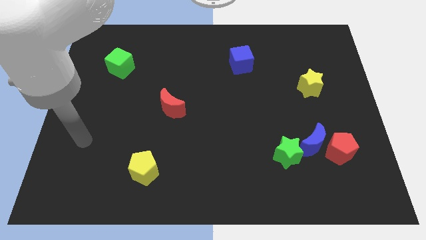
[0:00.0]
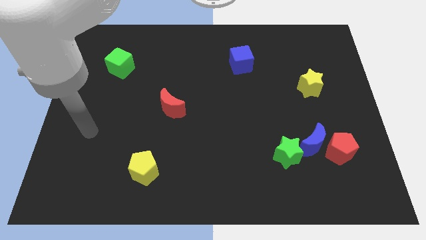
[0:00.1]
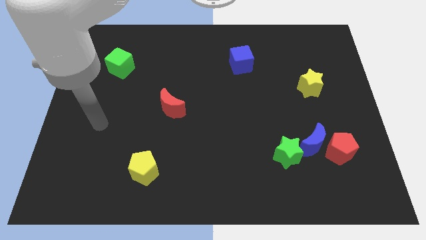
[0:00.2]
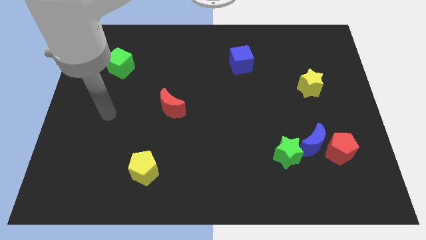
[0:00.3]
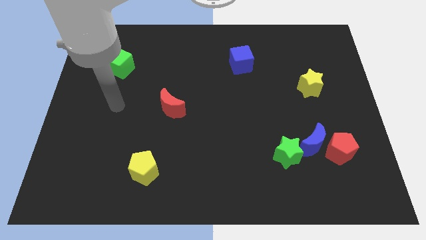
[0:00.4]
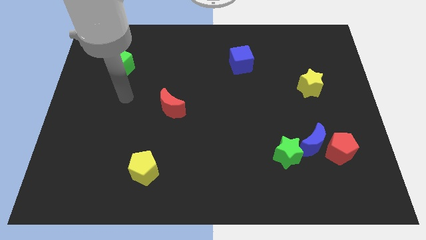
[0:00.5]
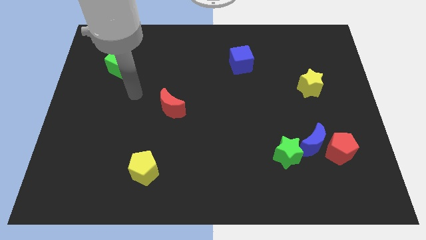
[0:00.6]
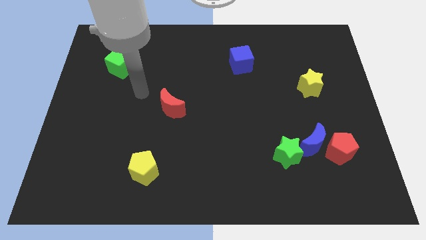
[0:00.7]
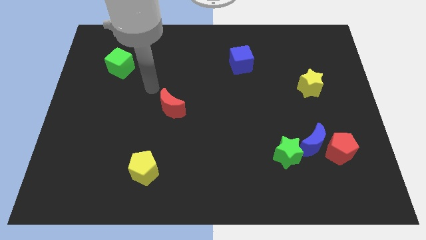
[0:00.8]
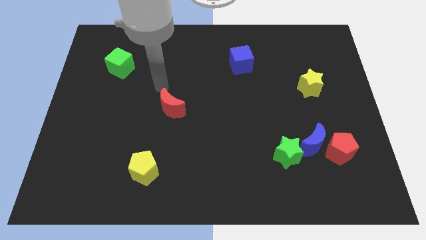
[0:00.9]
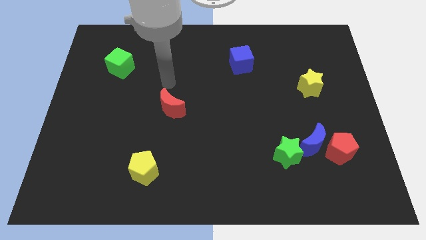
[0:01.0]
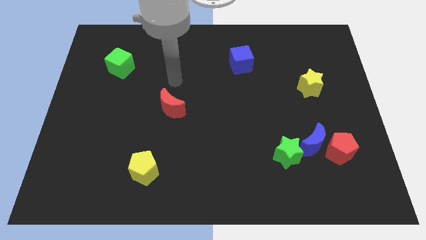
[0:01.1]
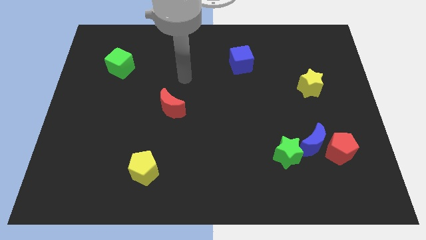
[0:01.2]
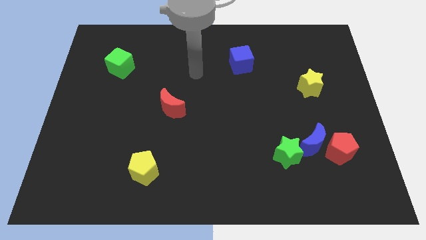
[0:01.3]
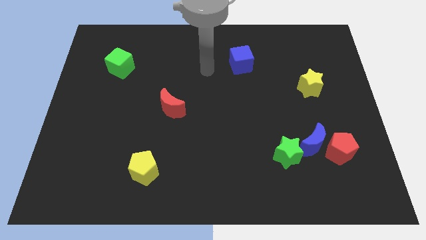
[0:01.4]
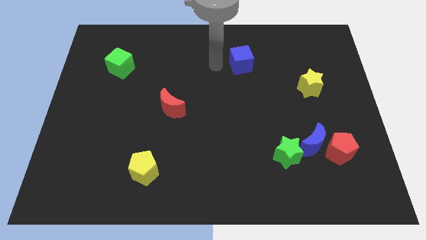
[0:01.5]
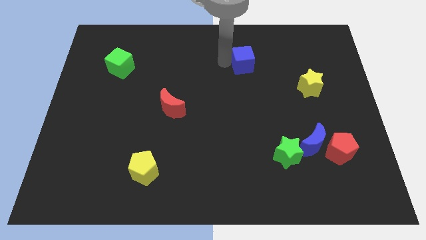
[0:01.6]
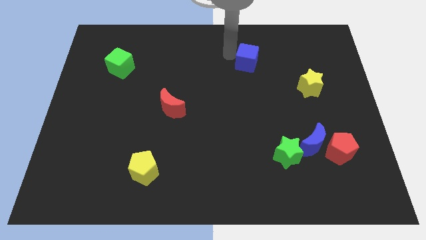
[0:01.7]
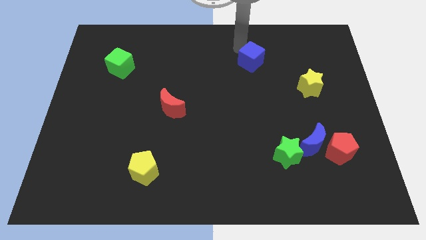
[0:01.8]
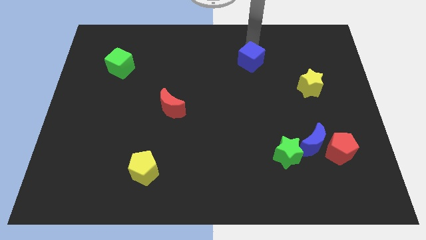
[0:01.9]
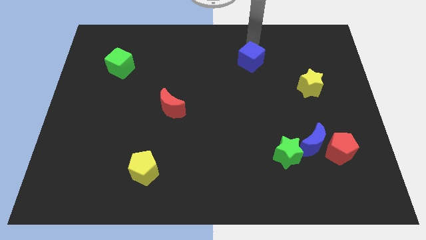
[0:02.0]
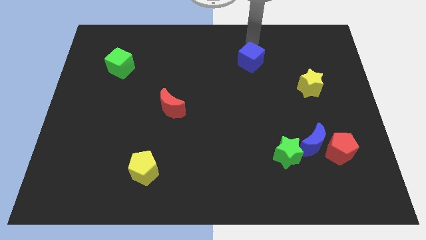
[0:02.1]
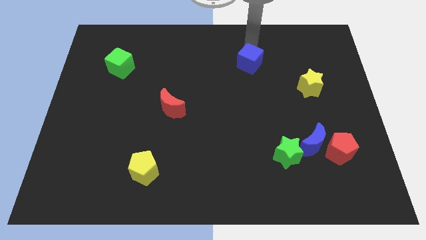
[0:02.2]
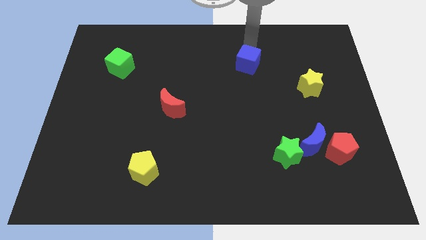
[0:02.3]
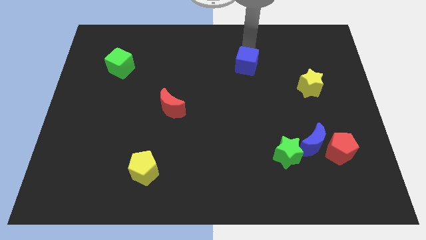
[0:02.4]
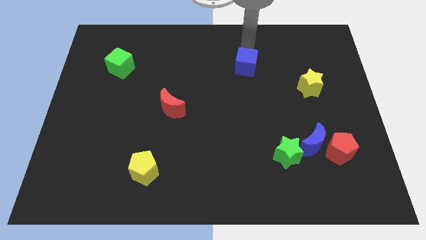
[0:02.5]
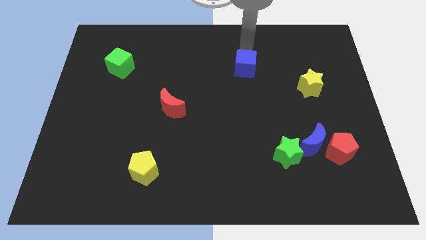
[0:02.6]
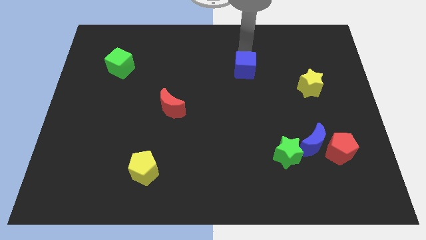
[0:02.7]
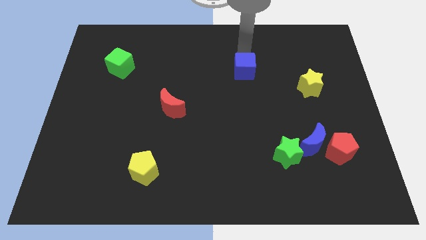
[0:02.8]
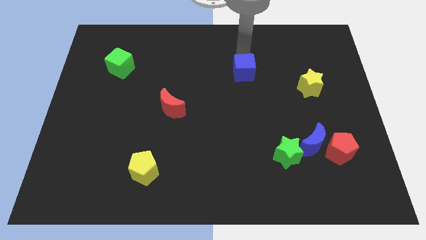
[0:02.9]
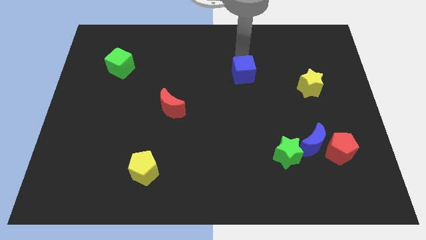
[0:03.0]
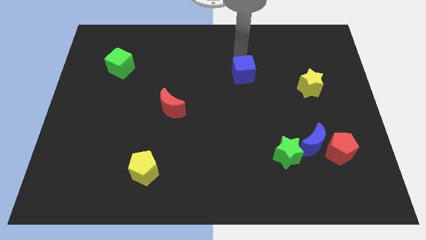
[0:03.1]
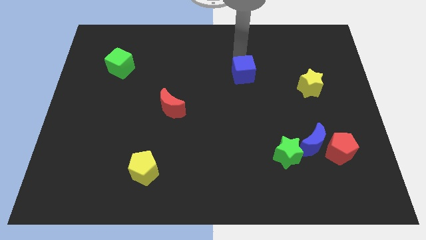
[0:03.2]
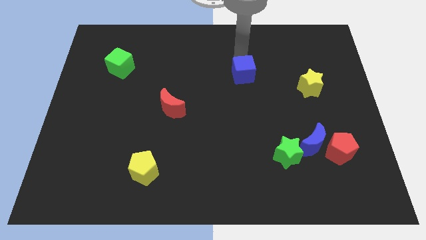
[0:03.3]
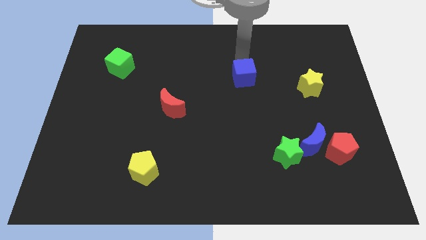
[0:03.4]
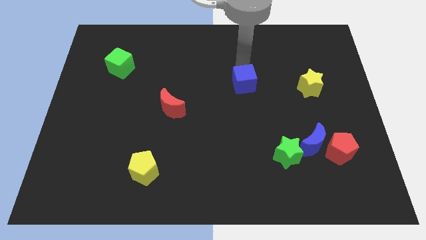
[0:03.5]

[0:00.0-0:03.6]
slightly push the blue cube down

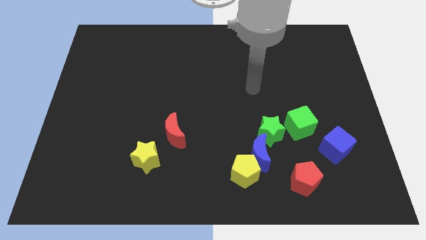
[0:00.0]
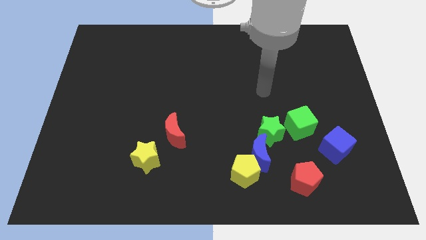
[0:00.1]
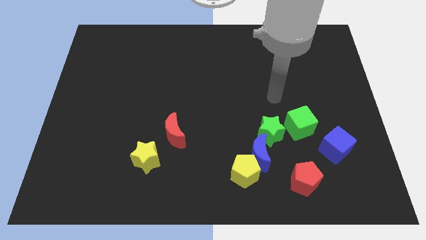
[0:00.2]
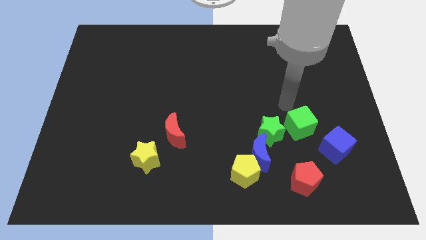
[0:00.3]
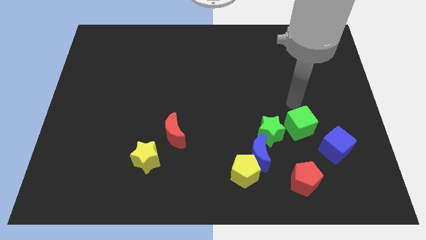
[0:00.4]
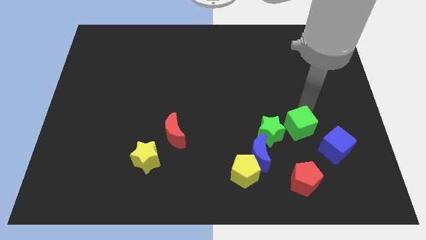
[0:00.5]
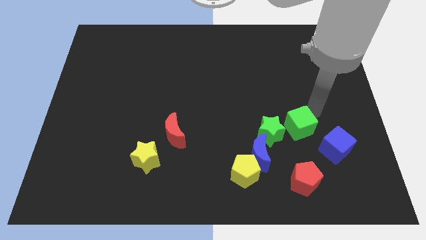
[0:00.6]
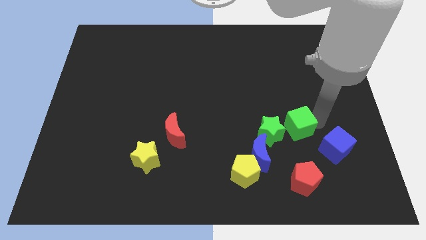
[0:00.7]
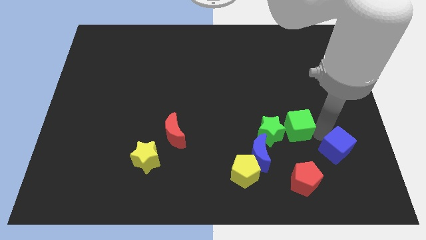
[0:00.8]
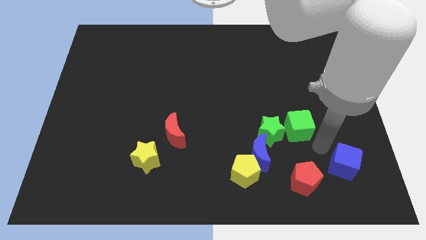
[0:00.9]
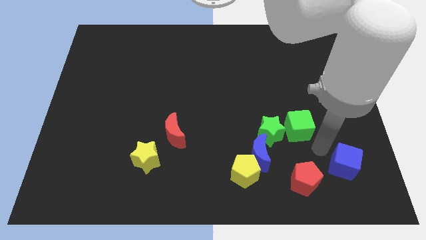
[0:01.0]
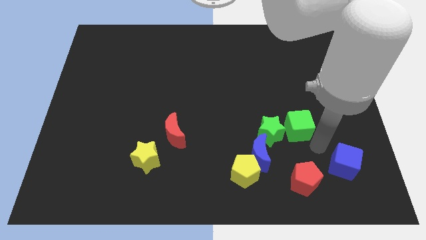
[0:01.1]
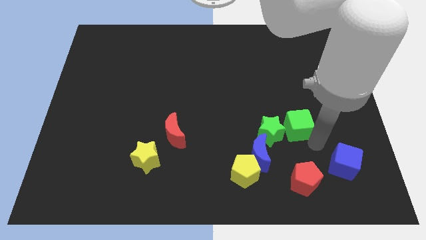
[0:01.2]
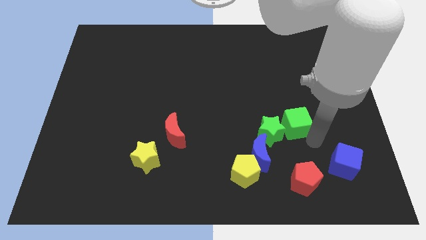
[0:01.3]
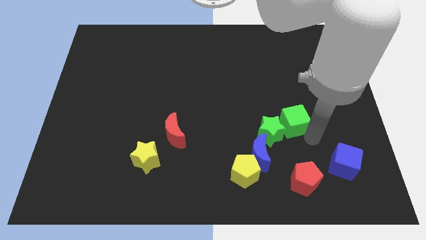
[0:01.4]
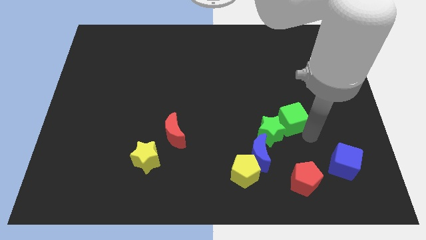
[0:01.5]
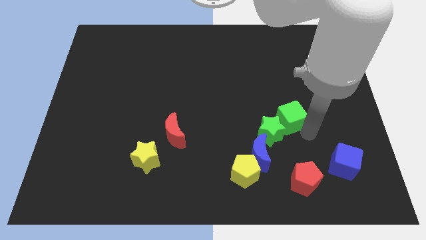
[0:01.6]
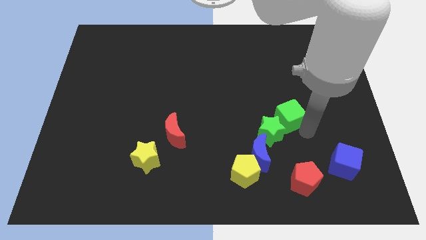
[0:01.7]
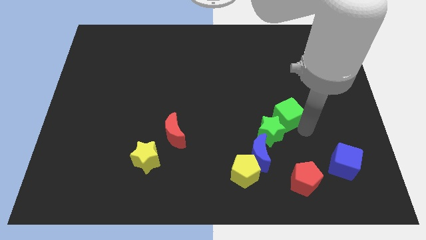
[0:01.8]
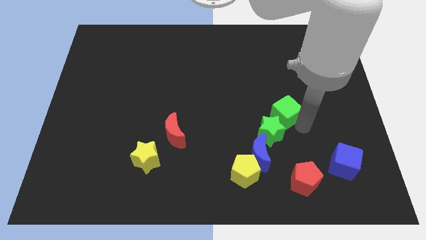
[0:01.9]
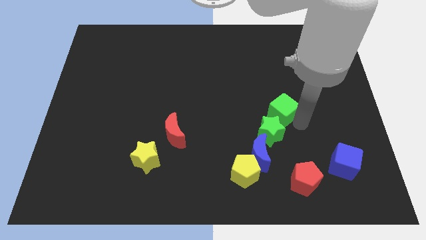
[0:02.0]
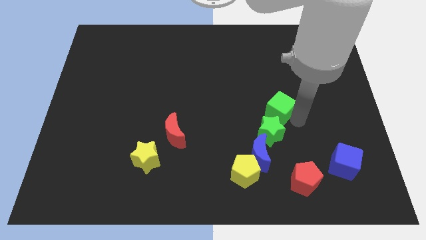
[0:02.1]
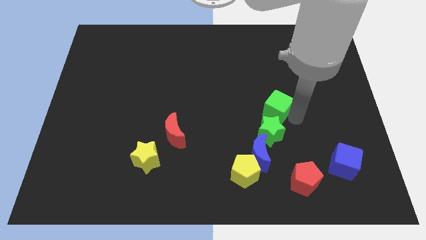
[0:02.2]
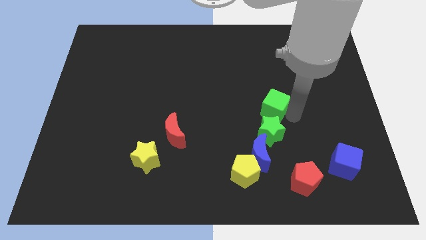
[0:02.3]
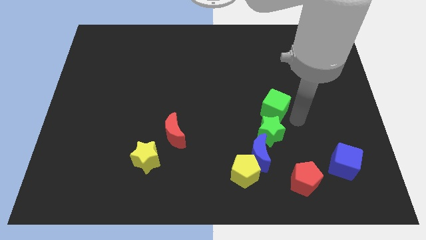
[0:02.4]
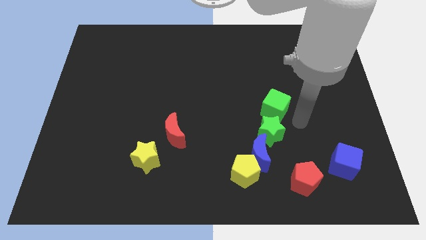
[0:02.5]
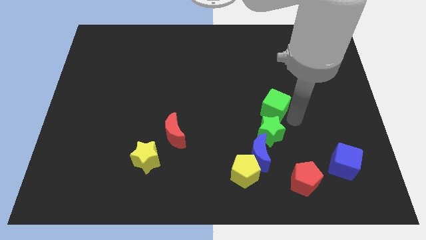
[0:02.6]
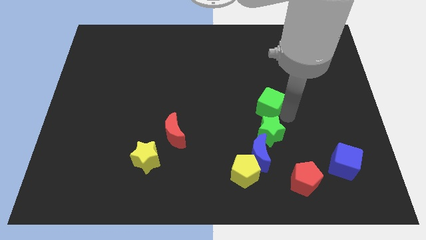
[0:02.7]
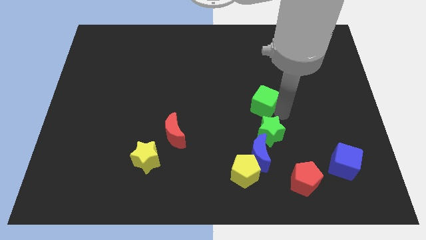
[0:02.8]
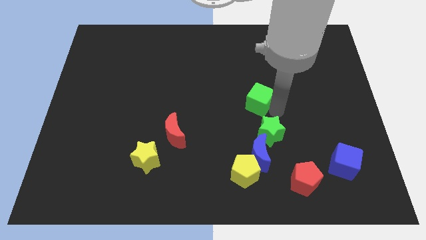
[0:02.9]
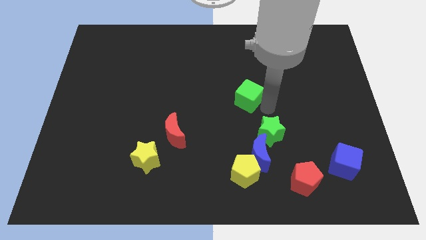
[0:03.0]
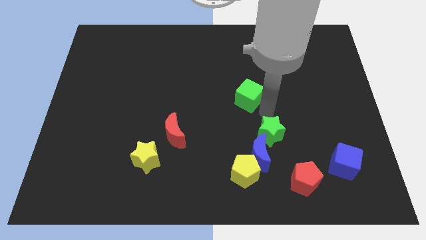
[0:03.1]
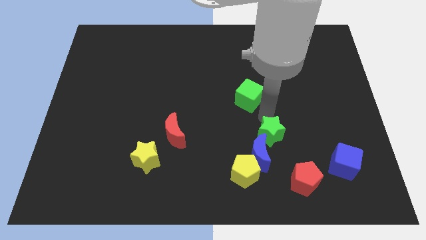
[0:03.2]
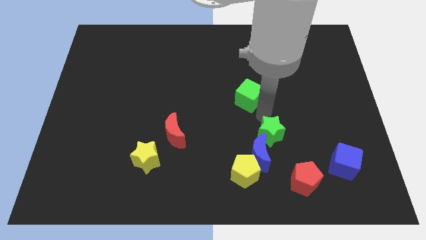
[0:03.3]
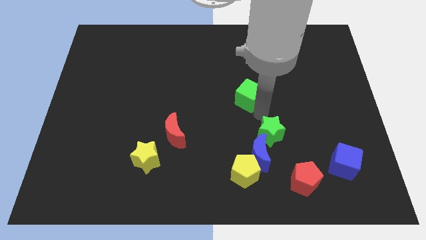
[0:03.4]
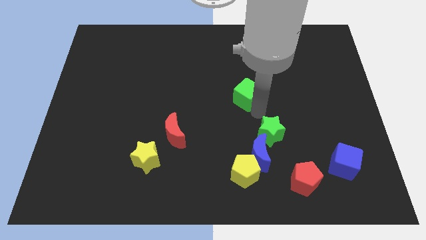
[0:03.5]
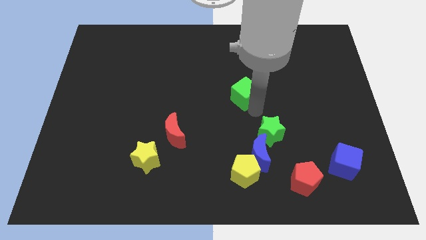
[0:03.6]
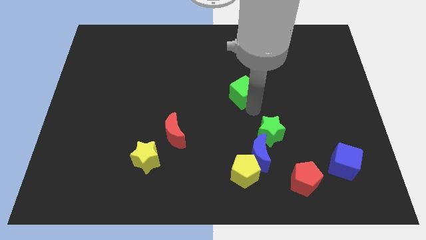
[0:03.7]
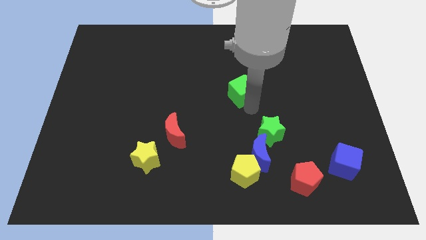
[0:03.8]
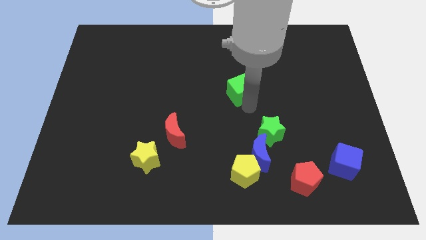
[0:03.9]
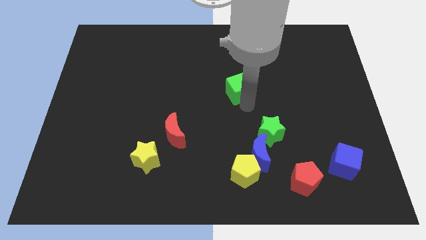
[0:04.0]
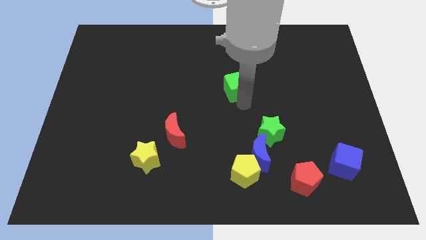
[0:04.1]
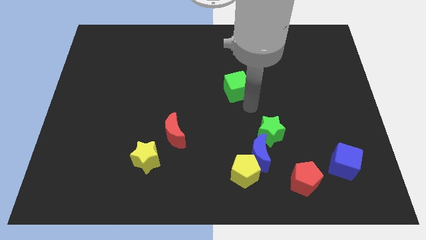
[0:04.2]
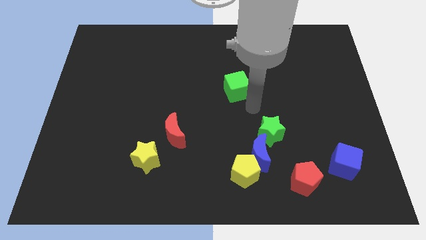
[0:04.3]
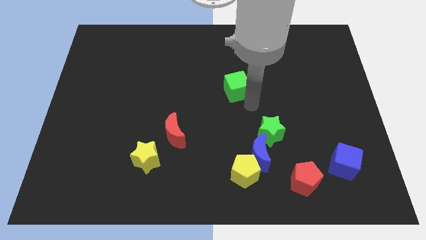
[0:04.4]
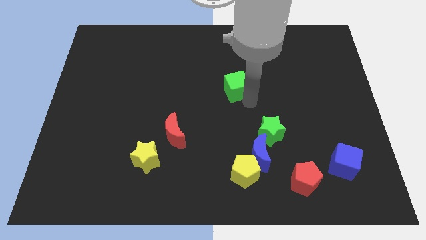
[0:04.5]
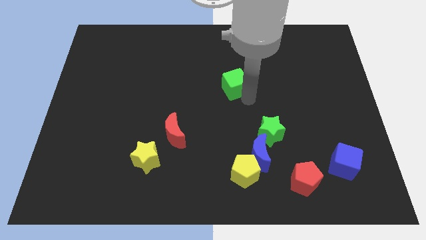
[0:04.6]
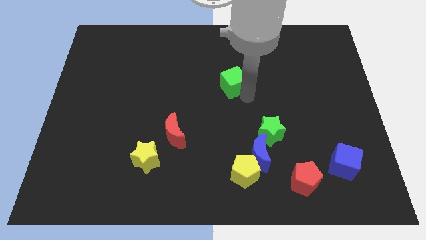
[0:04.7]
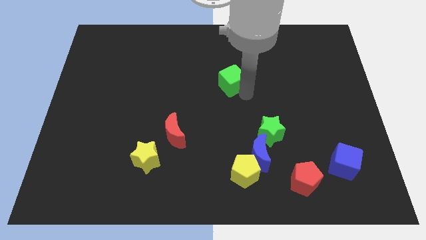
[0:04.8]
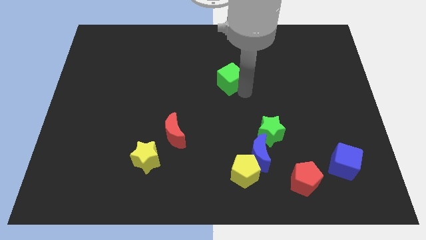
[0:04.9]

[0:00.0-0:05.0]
slide the green cube up and left diagonally
